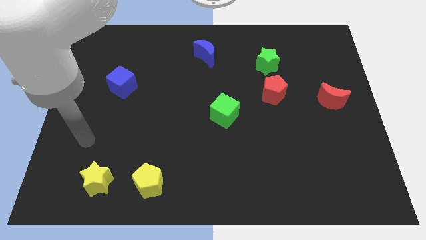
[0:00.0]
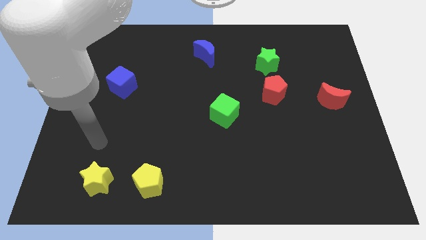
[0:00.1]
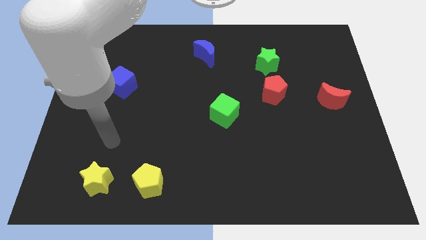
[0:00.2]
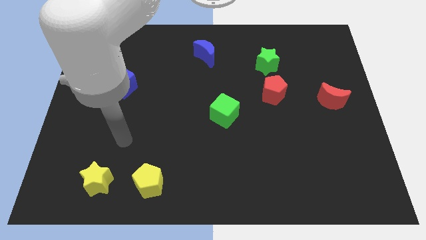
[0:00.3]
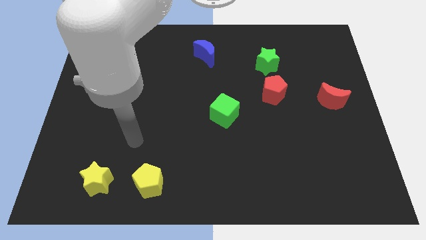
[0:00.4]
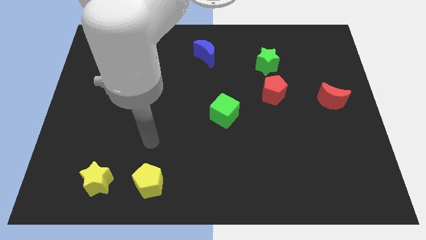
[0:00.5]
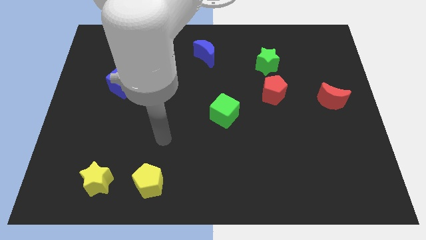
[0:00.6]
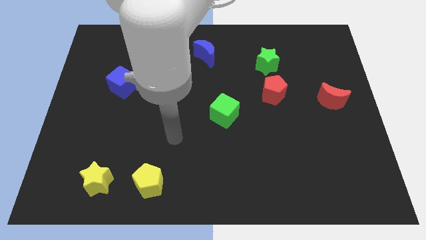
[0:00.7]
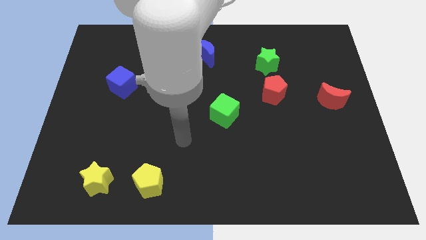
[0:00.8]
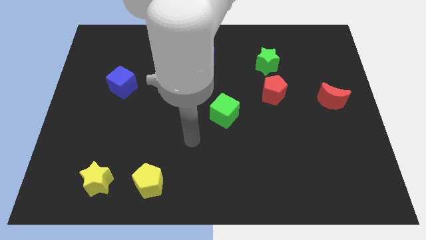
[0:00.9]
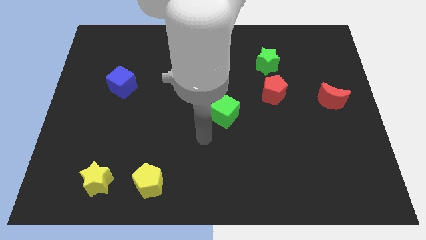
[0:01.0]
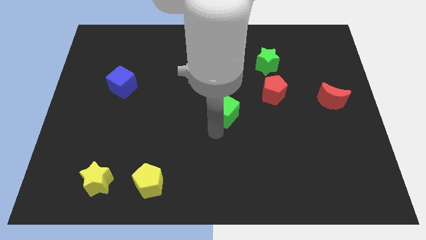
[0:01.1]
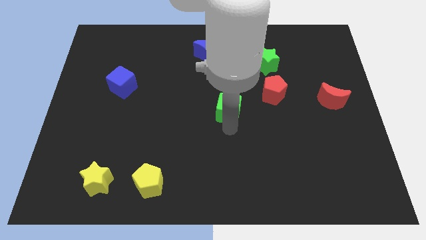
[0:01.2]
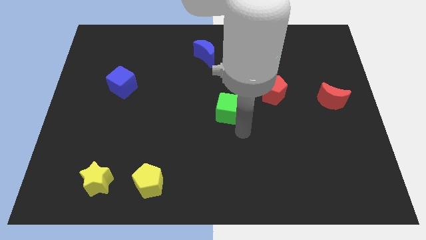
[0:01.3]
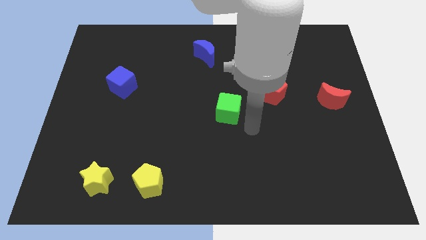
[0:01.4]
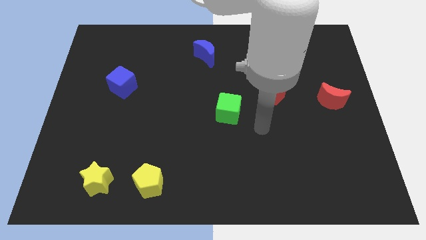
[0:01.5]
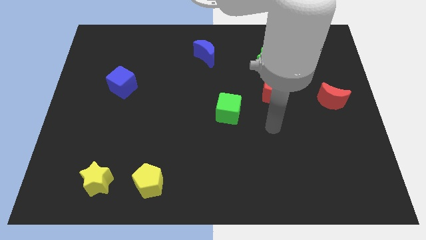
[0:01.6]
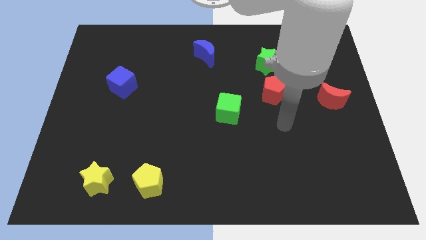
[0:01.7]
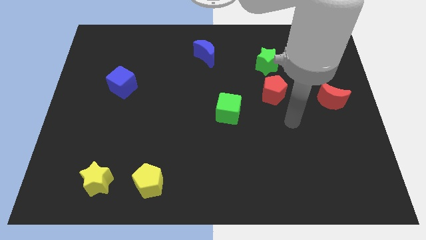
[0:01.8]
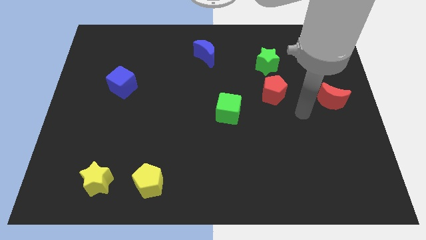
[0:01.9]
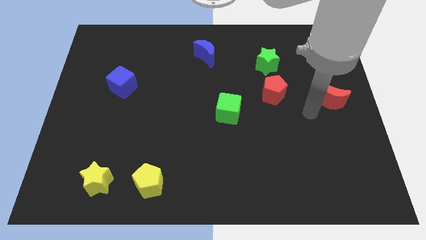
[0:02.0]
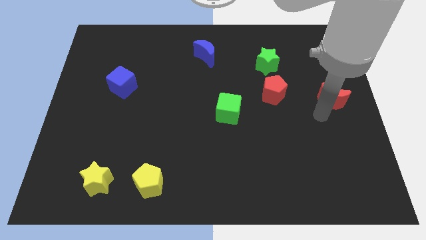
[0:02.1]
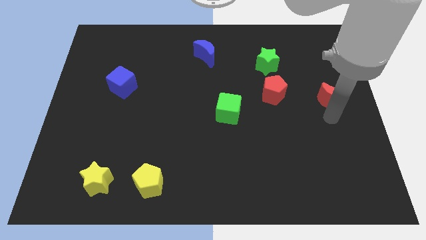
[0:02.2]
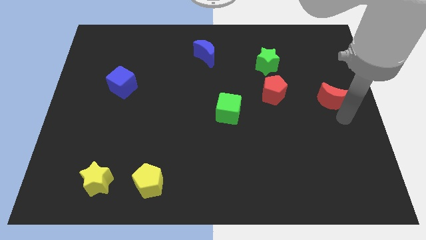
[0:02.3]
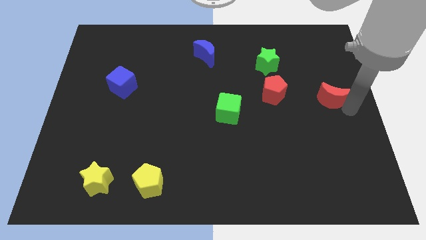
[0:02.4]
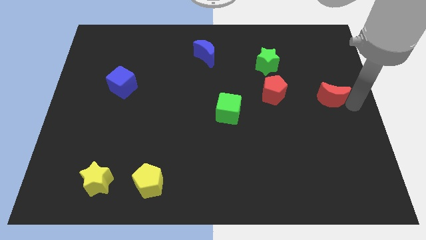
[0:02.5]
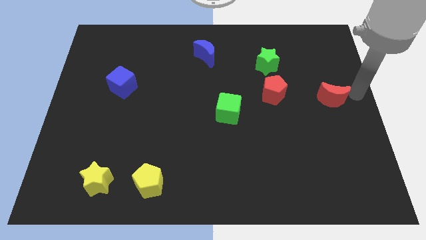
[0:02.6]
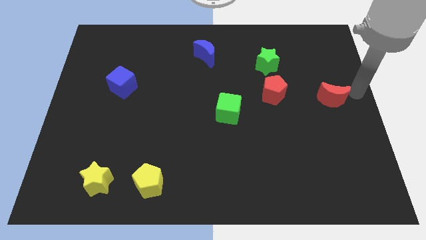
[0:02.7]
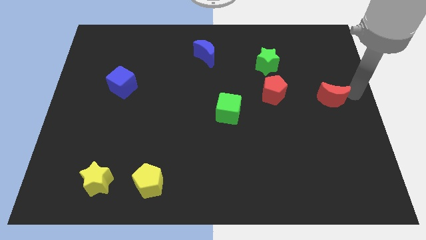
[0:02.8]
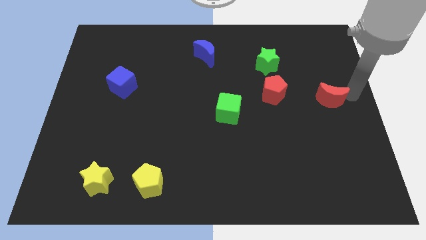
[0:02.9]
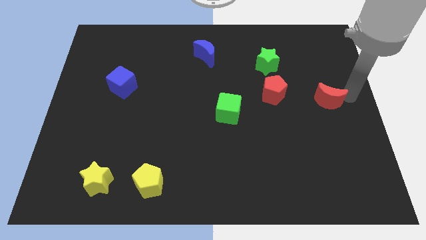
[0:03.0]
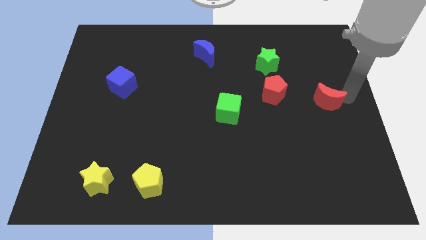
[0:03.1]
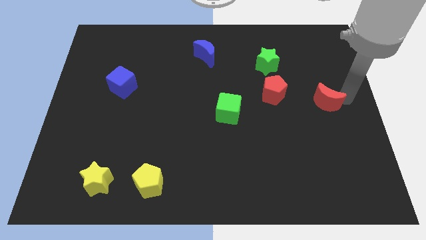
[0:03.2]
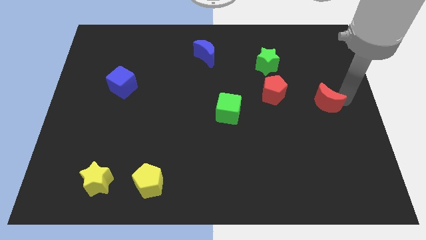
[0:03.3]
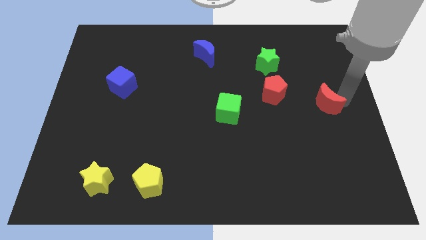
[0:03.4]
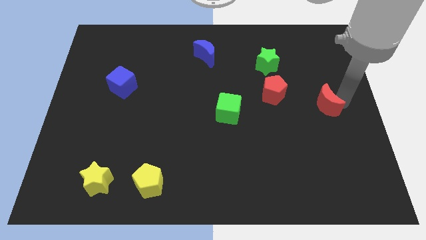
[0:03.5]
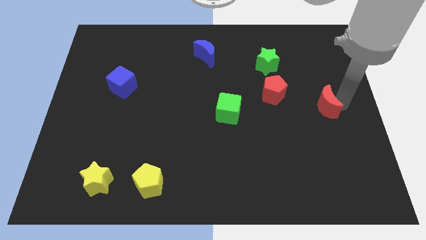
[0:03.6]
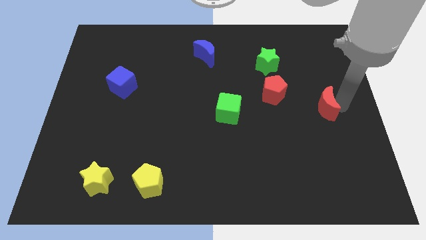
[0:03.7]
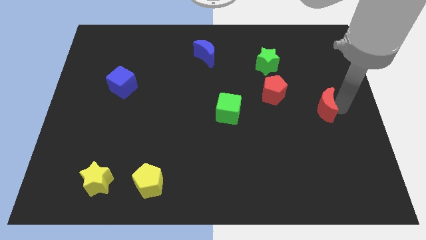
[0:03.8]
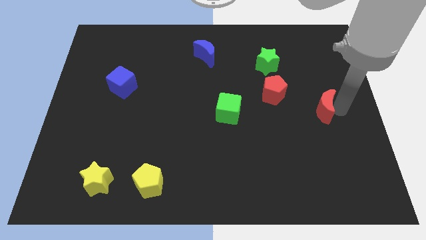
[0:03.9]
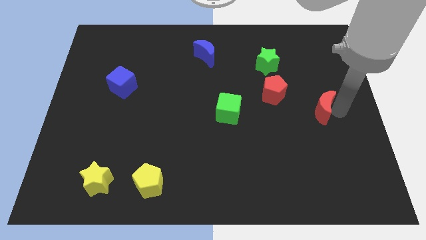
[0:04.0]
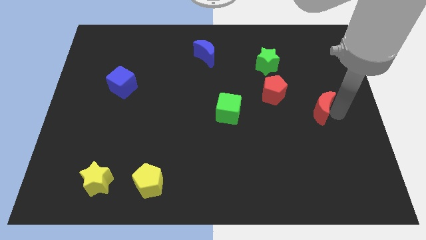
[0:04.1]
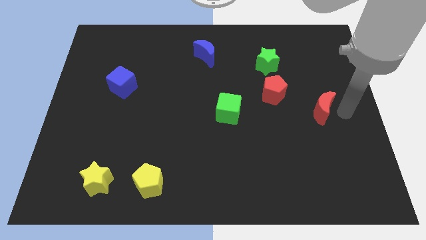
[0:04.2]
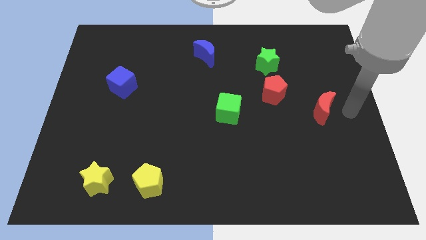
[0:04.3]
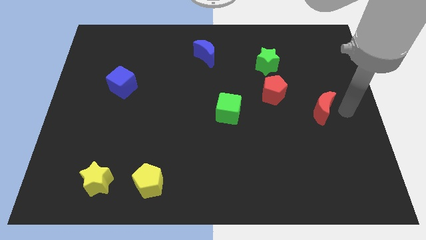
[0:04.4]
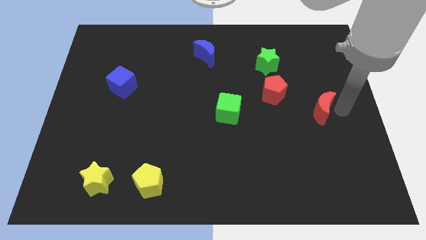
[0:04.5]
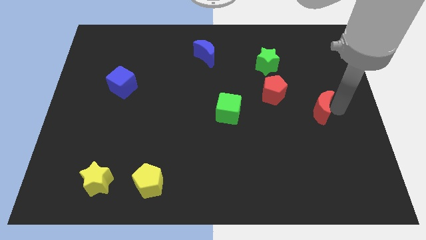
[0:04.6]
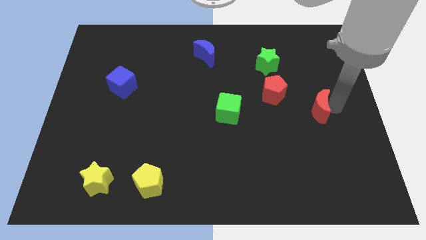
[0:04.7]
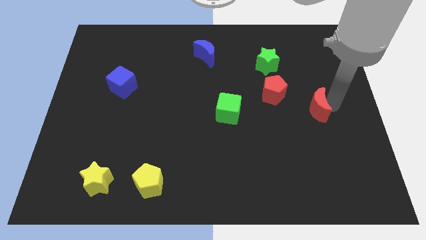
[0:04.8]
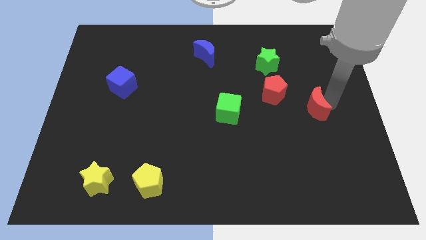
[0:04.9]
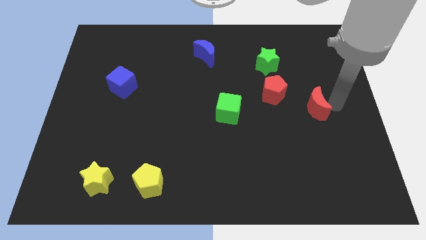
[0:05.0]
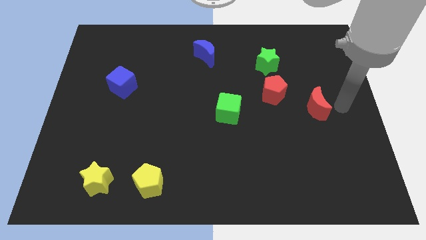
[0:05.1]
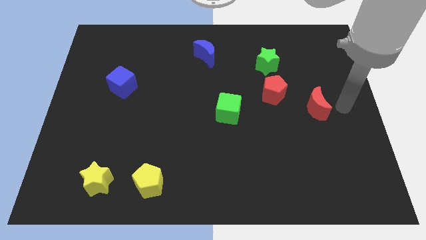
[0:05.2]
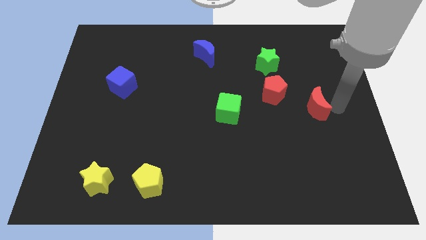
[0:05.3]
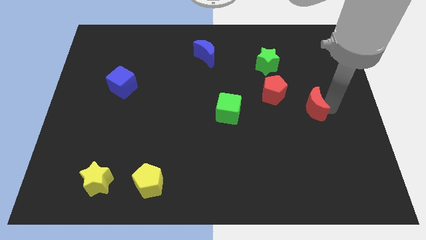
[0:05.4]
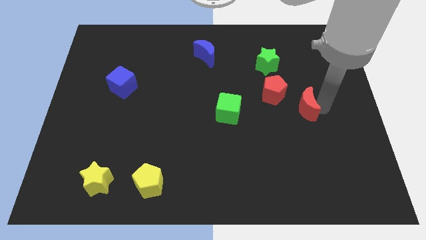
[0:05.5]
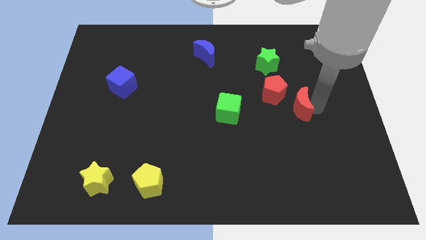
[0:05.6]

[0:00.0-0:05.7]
slightly move the red moon left

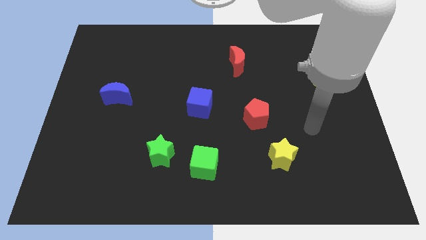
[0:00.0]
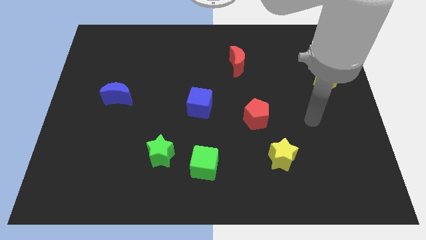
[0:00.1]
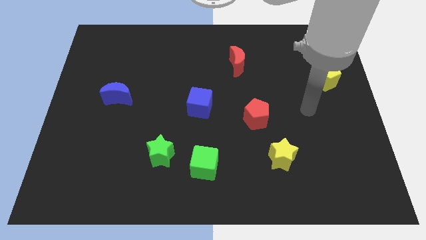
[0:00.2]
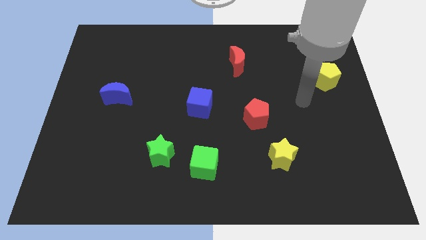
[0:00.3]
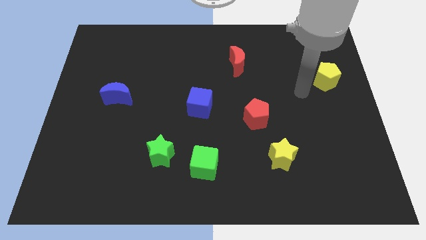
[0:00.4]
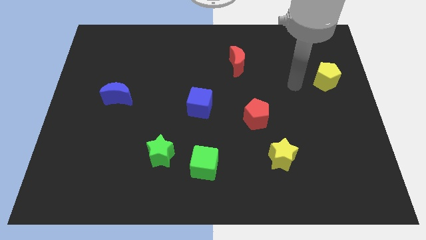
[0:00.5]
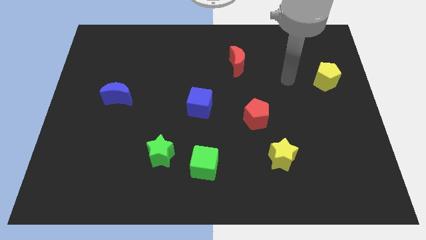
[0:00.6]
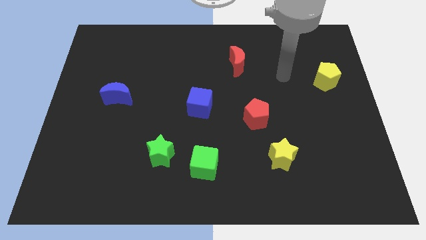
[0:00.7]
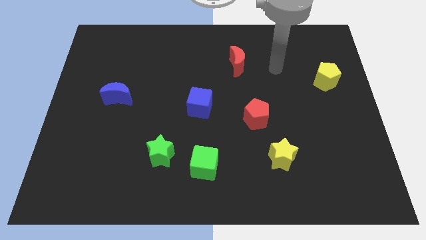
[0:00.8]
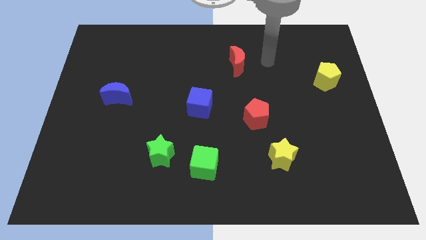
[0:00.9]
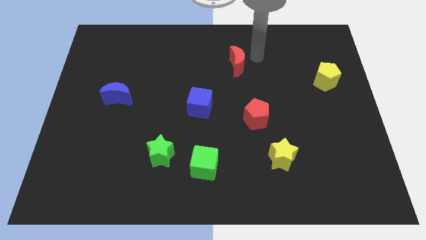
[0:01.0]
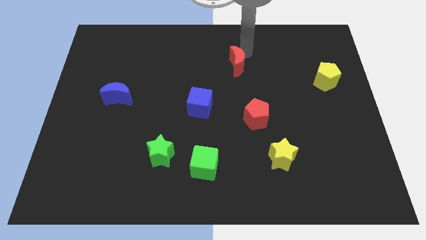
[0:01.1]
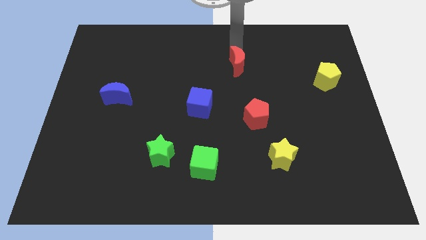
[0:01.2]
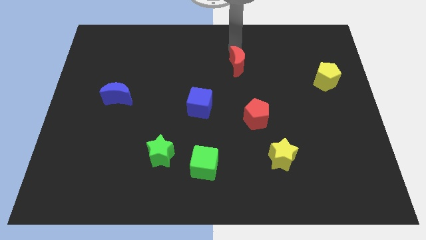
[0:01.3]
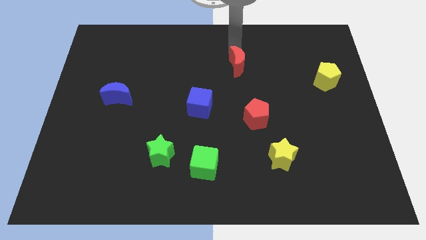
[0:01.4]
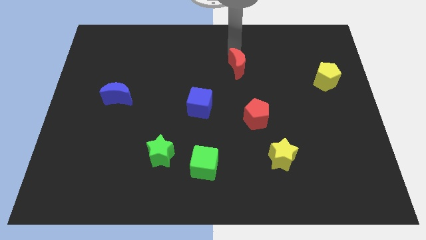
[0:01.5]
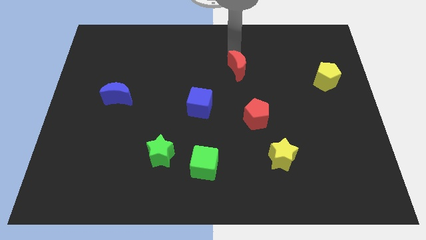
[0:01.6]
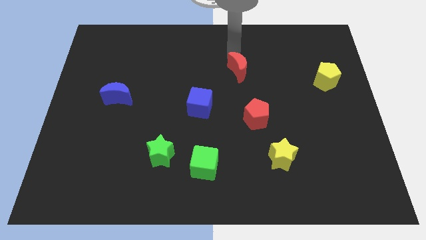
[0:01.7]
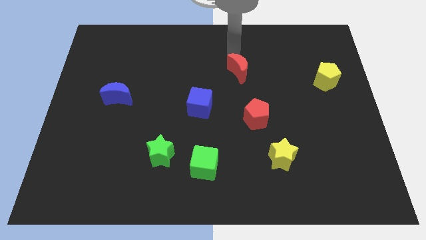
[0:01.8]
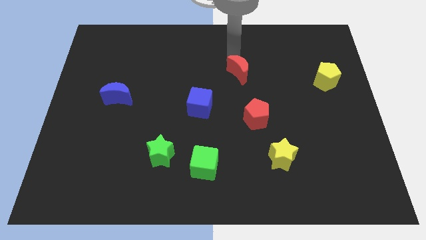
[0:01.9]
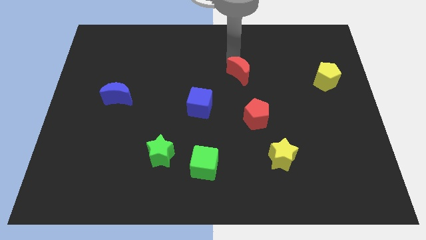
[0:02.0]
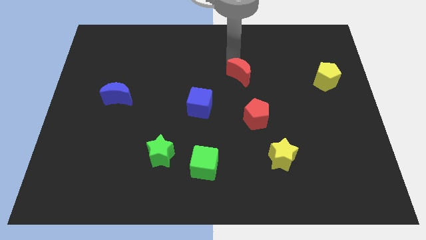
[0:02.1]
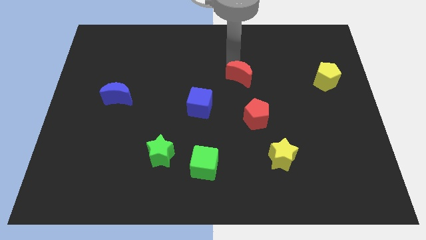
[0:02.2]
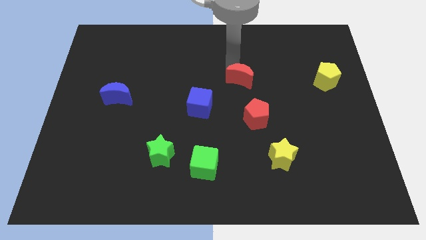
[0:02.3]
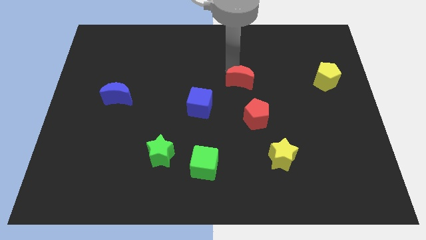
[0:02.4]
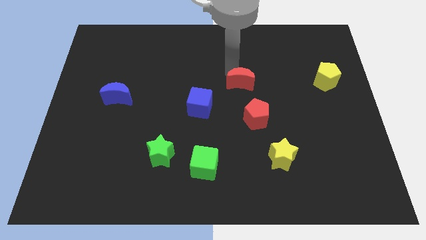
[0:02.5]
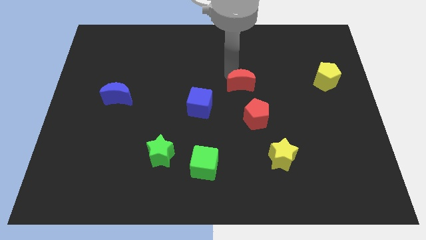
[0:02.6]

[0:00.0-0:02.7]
slide the red moon a little bit downwards

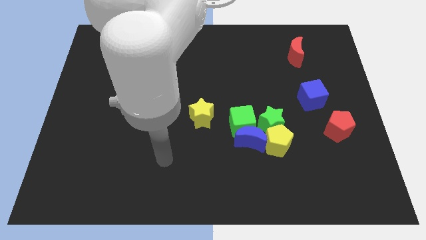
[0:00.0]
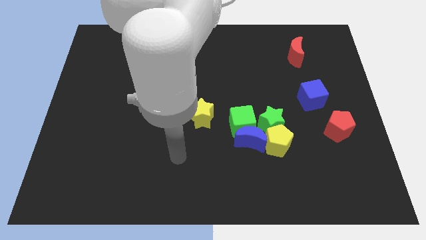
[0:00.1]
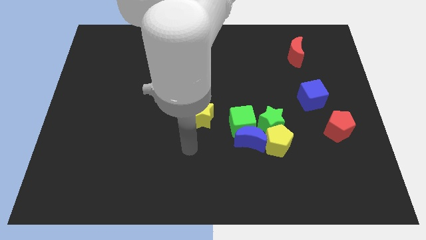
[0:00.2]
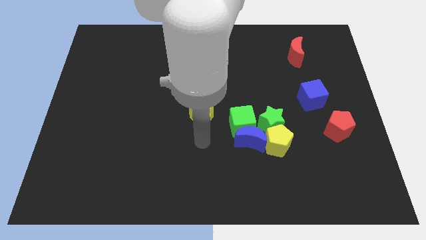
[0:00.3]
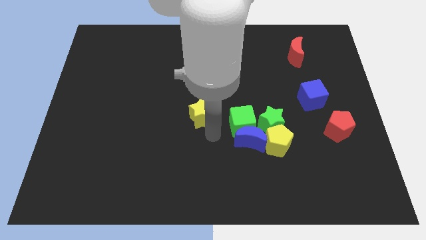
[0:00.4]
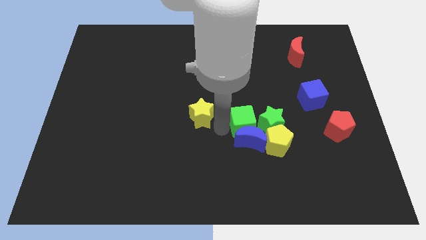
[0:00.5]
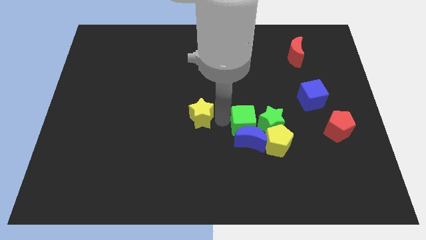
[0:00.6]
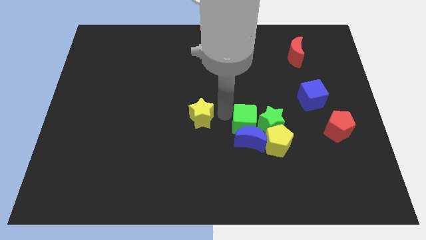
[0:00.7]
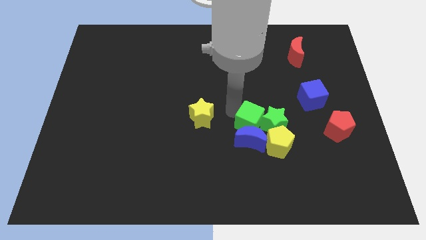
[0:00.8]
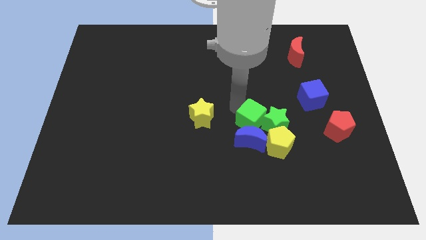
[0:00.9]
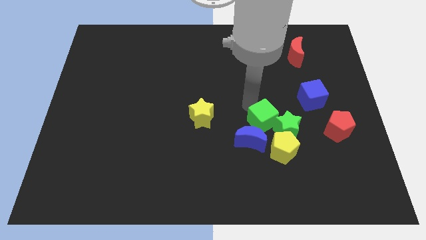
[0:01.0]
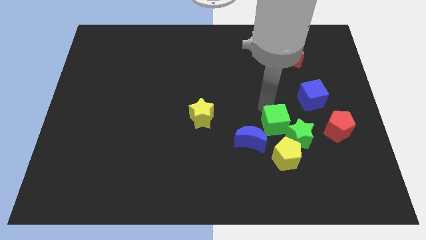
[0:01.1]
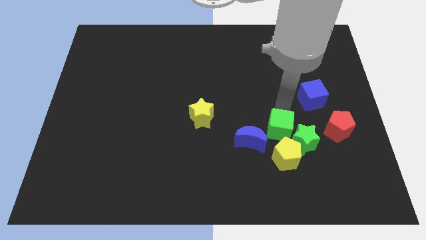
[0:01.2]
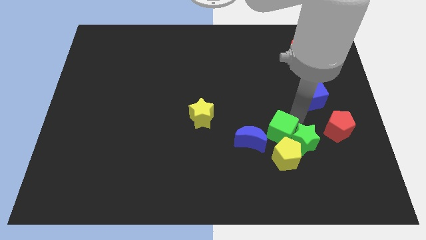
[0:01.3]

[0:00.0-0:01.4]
slightly push the green cube diagonally downwards and right
